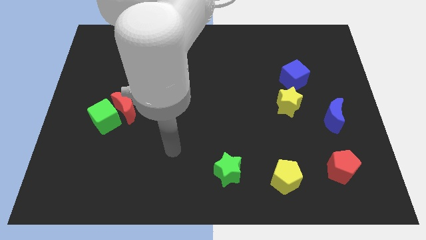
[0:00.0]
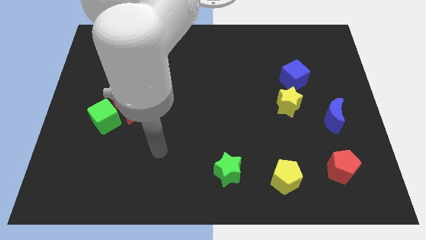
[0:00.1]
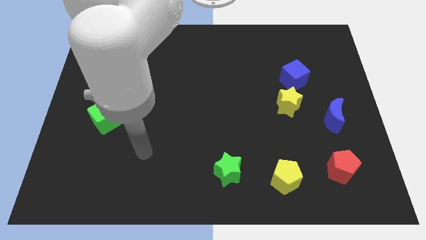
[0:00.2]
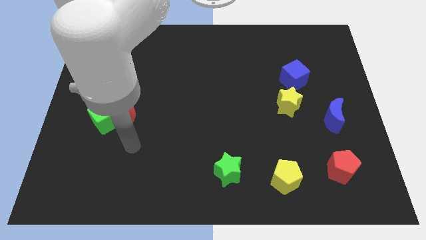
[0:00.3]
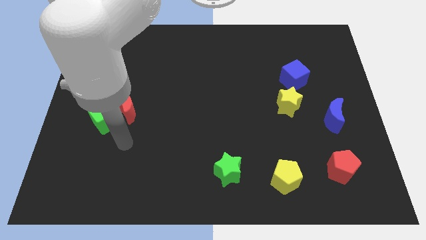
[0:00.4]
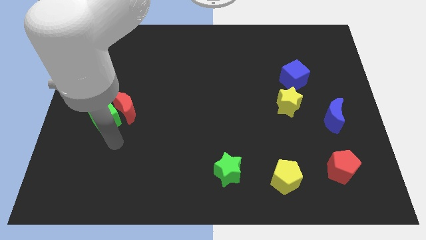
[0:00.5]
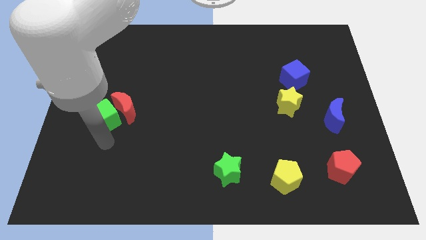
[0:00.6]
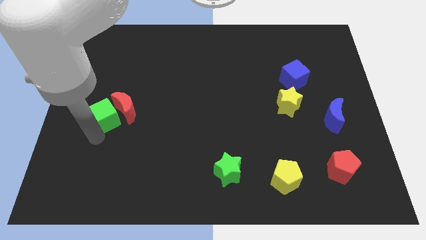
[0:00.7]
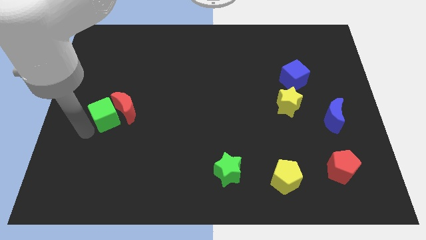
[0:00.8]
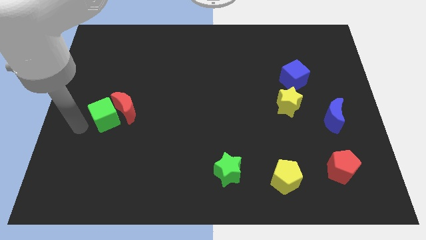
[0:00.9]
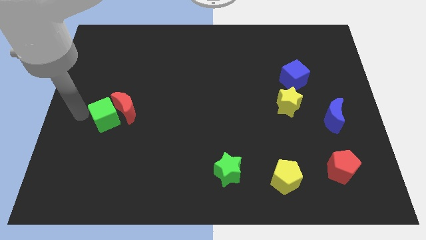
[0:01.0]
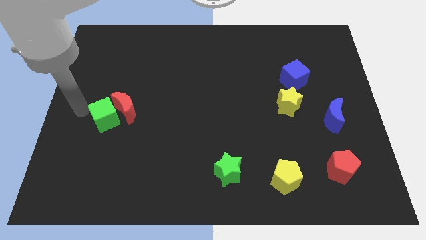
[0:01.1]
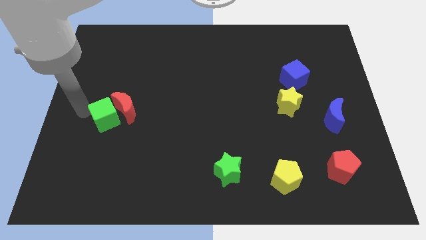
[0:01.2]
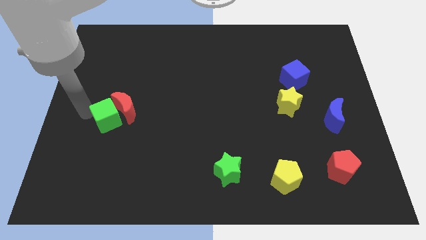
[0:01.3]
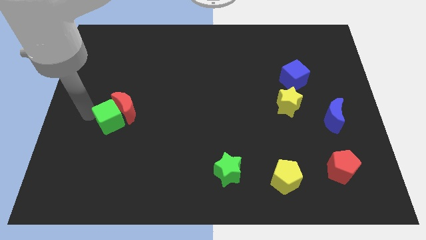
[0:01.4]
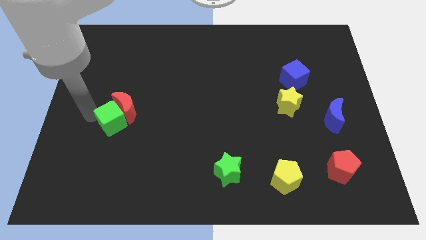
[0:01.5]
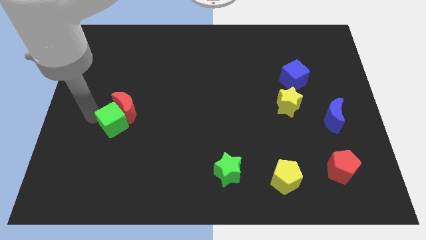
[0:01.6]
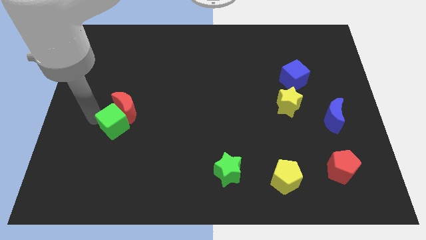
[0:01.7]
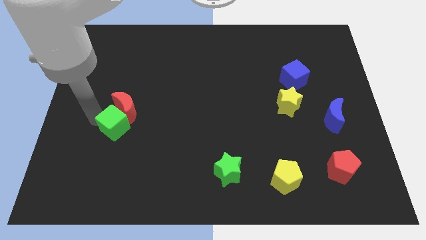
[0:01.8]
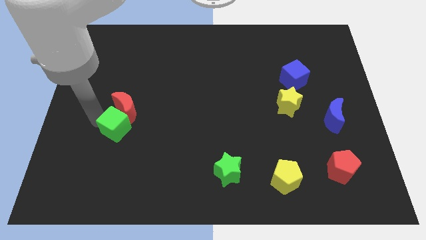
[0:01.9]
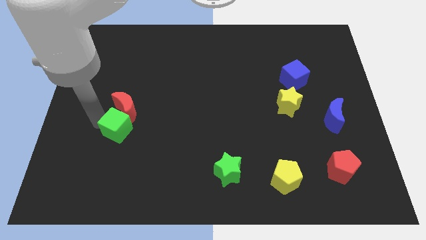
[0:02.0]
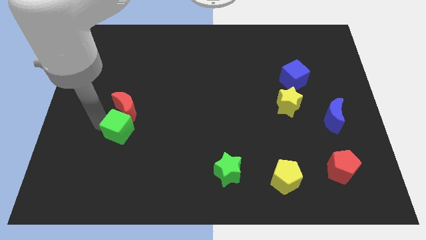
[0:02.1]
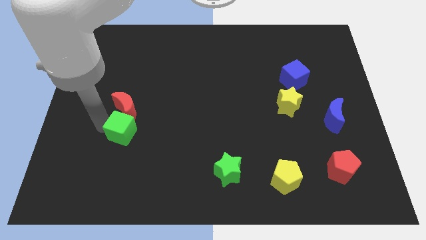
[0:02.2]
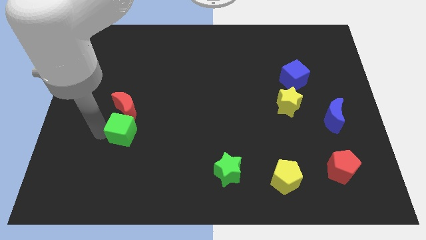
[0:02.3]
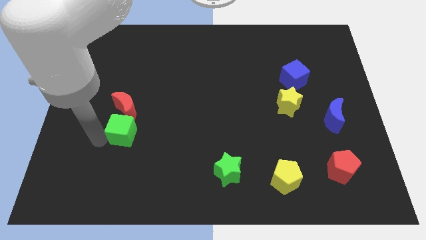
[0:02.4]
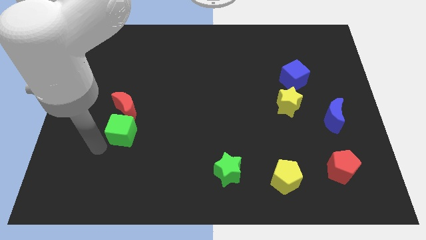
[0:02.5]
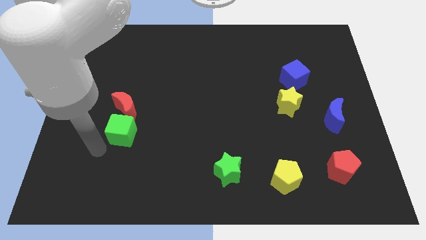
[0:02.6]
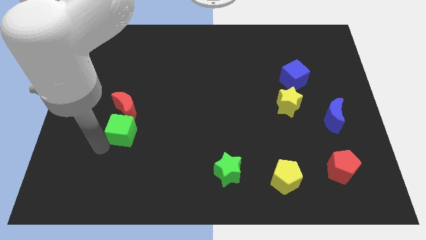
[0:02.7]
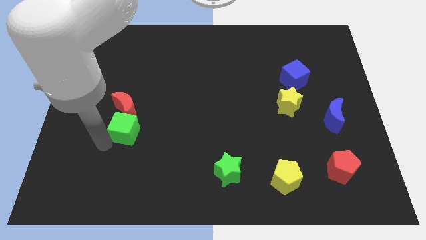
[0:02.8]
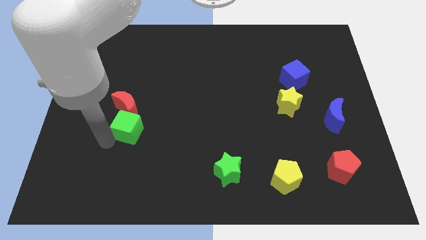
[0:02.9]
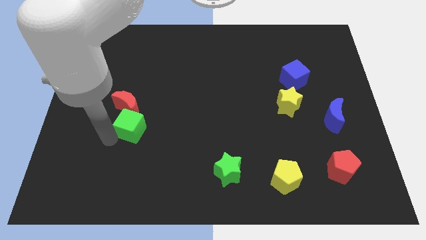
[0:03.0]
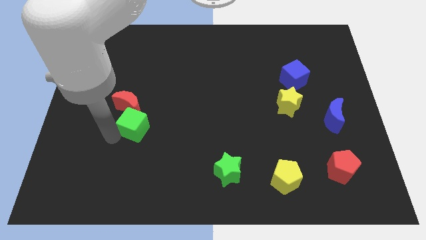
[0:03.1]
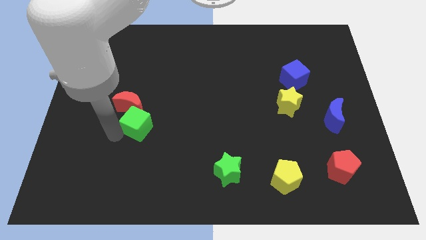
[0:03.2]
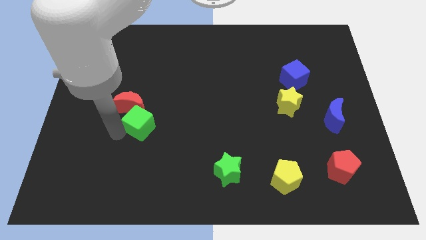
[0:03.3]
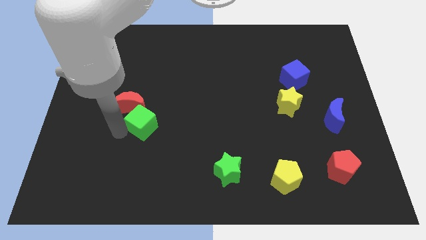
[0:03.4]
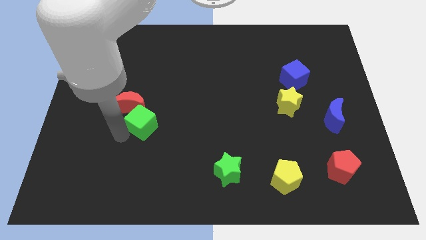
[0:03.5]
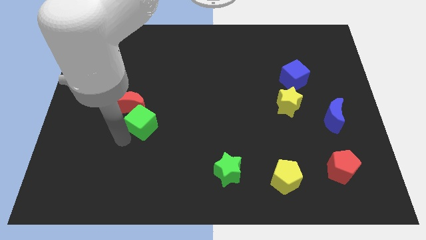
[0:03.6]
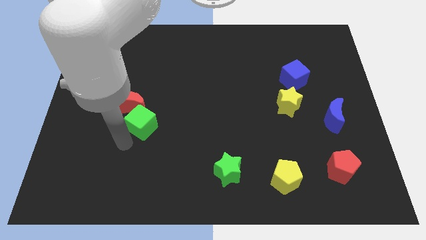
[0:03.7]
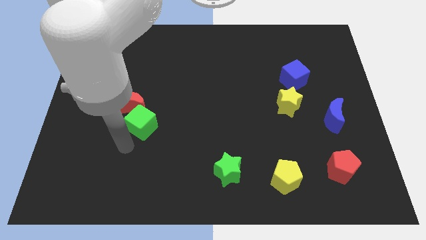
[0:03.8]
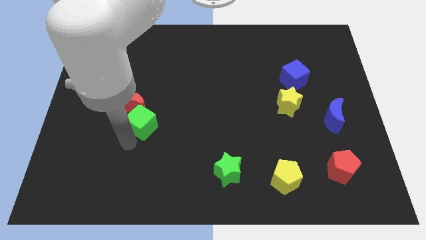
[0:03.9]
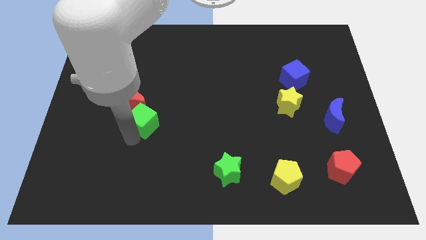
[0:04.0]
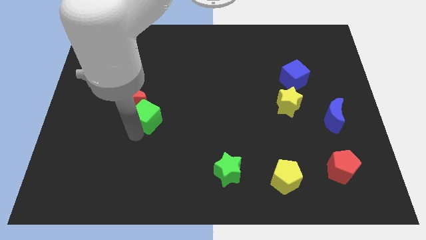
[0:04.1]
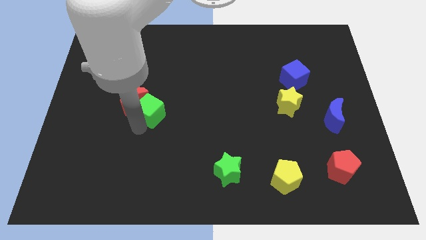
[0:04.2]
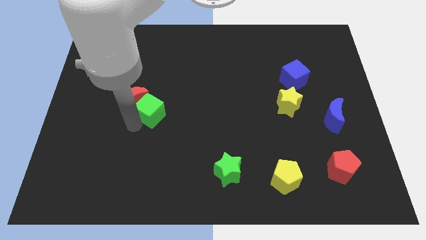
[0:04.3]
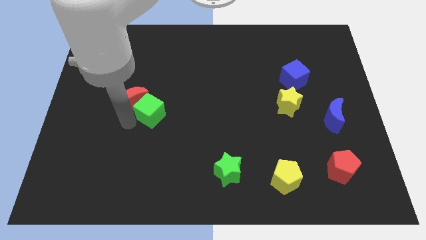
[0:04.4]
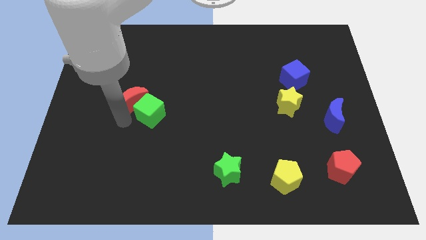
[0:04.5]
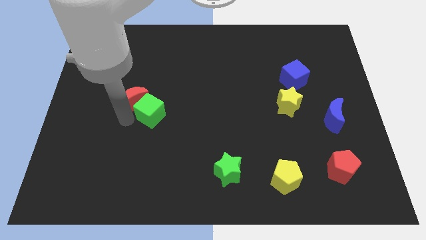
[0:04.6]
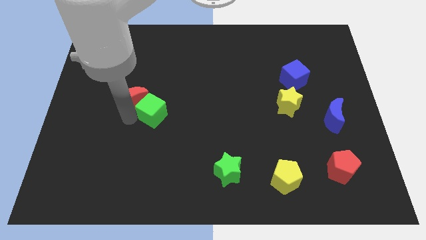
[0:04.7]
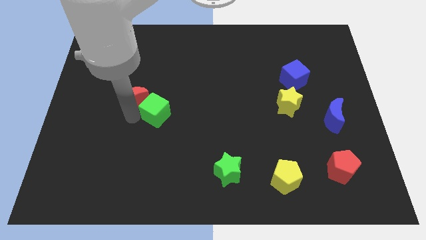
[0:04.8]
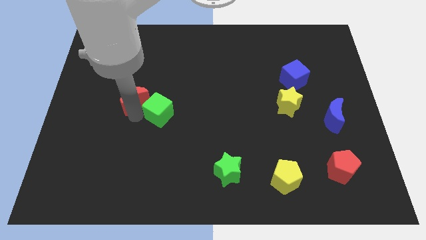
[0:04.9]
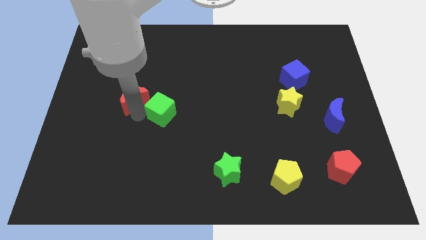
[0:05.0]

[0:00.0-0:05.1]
push the green cube to the center

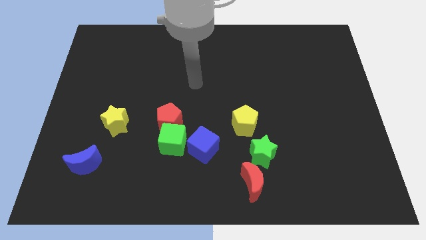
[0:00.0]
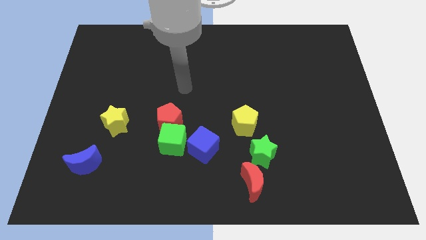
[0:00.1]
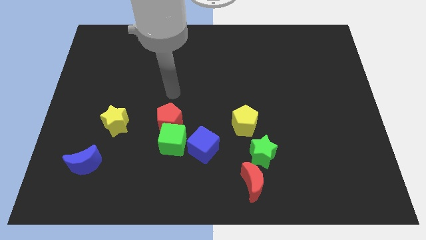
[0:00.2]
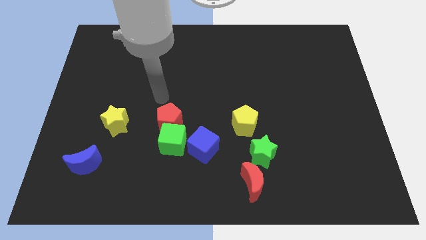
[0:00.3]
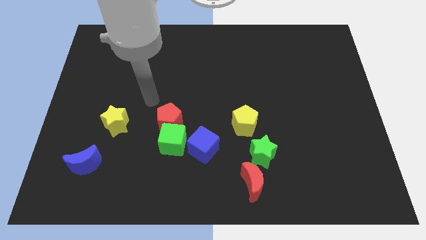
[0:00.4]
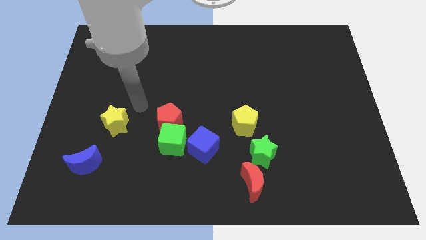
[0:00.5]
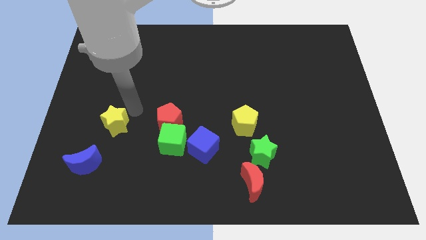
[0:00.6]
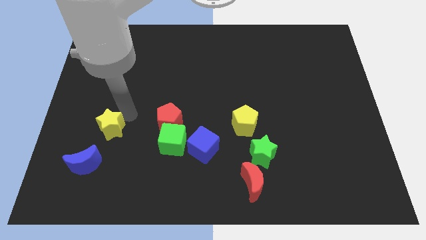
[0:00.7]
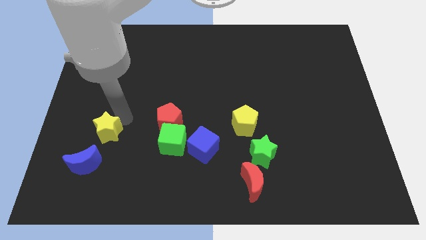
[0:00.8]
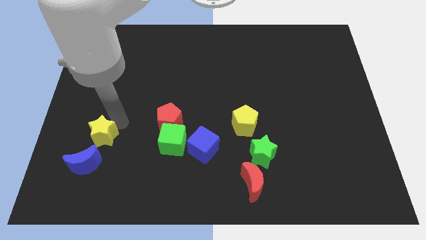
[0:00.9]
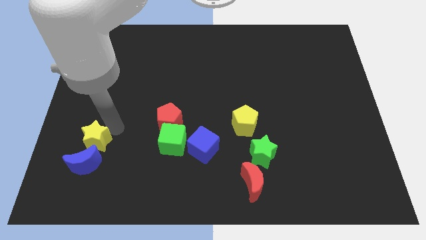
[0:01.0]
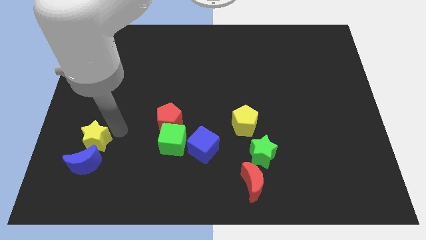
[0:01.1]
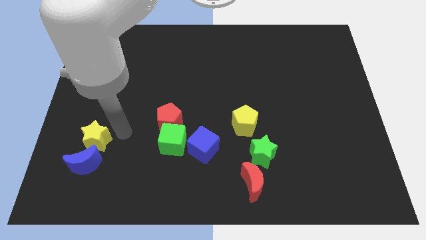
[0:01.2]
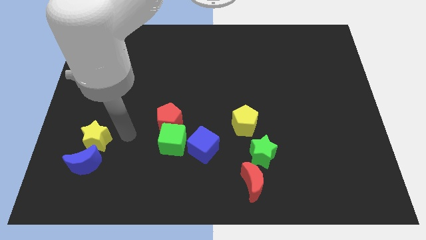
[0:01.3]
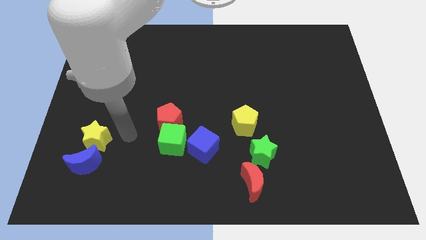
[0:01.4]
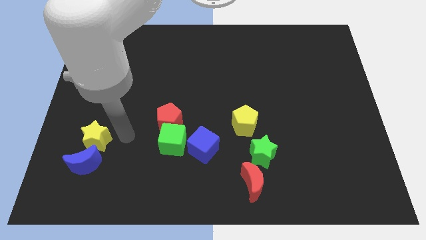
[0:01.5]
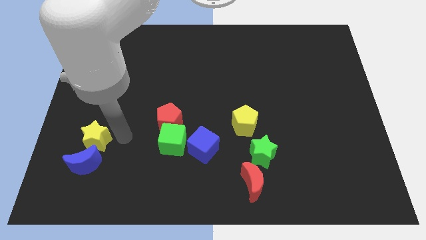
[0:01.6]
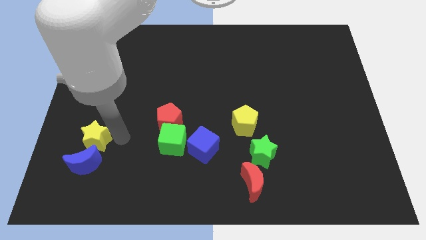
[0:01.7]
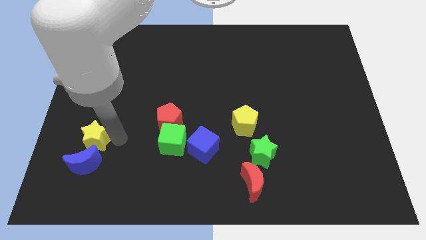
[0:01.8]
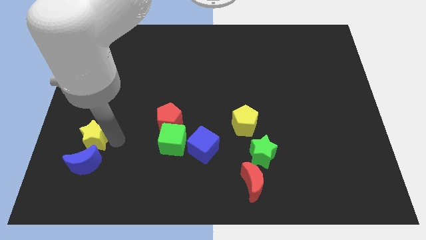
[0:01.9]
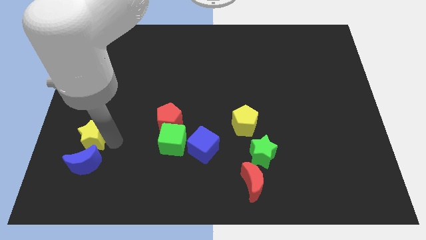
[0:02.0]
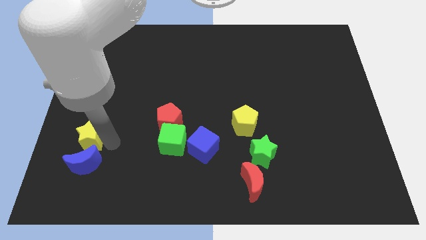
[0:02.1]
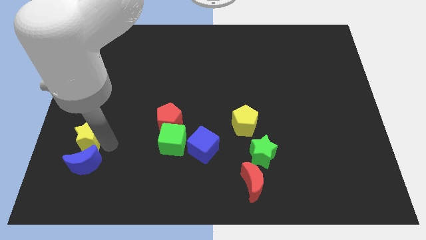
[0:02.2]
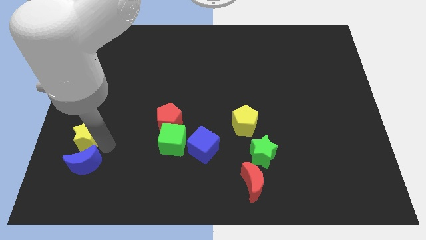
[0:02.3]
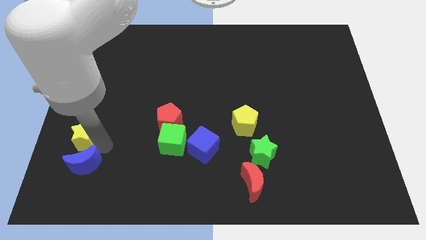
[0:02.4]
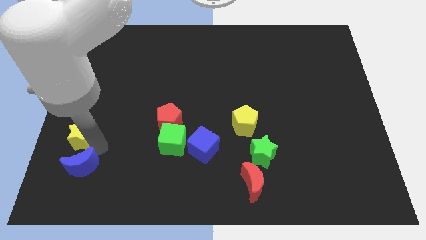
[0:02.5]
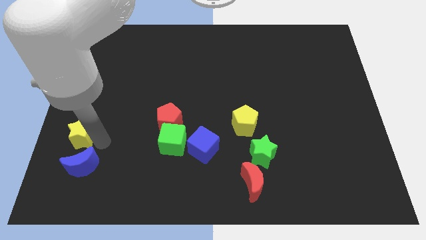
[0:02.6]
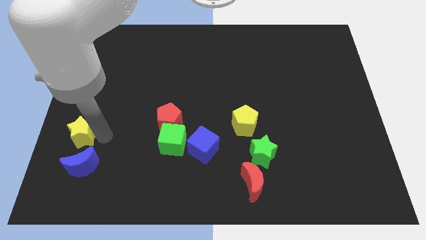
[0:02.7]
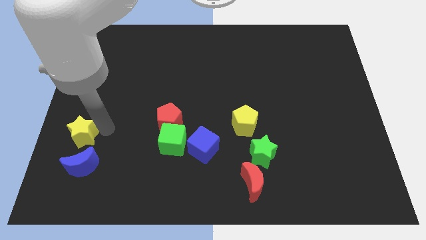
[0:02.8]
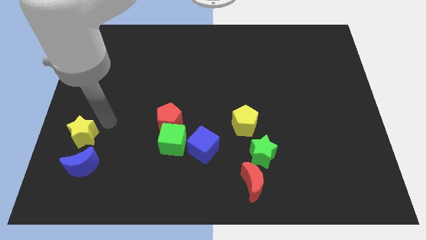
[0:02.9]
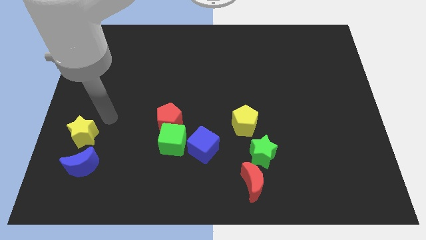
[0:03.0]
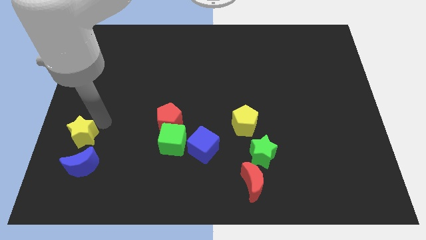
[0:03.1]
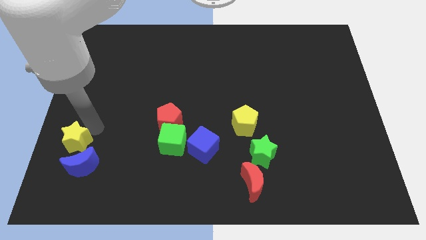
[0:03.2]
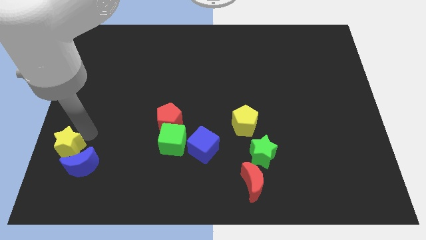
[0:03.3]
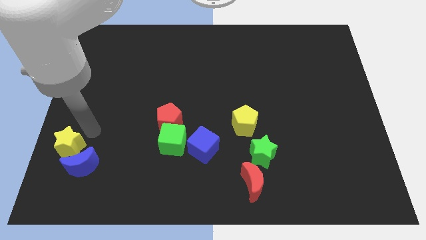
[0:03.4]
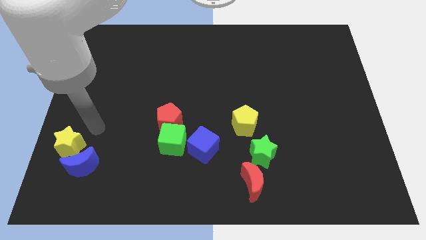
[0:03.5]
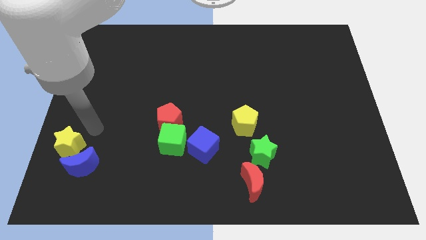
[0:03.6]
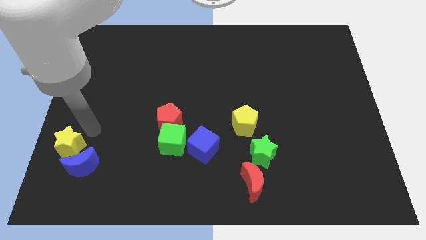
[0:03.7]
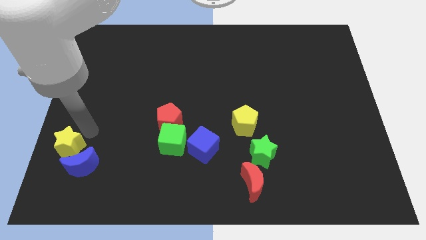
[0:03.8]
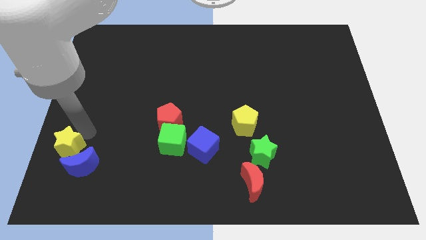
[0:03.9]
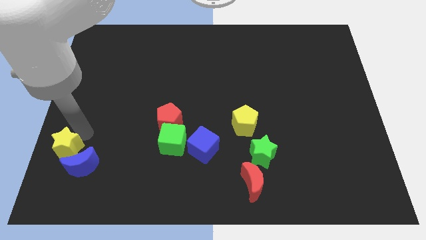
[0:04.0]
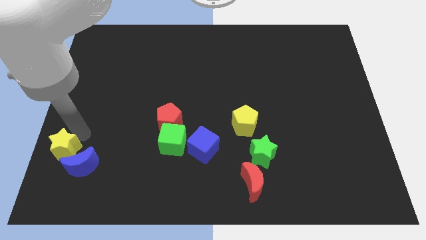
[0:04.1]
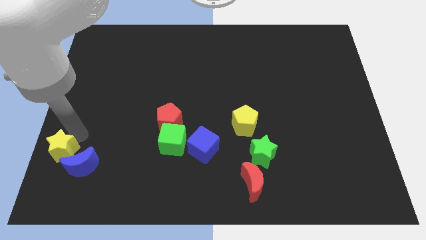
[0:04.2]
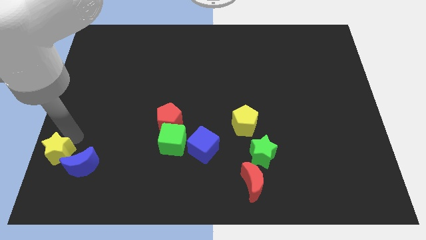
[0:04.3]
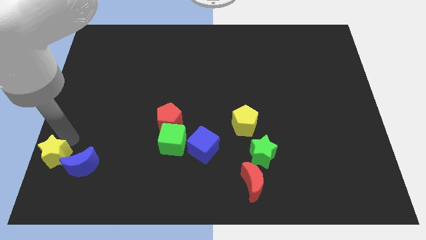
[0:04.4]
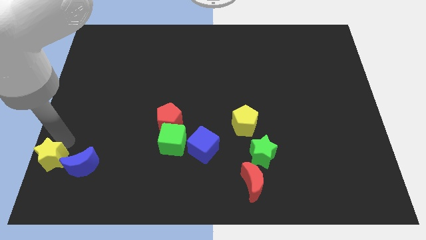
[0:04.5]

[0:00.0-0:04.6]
slide the yellow star to the bottom left
